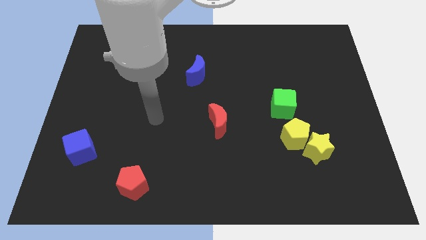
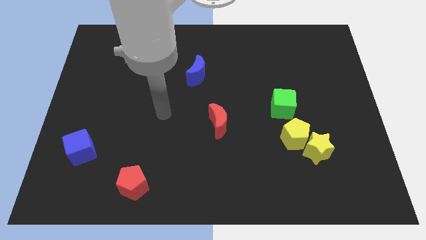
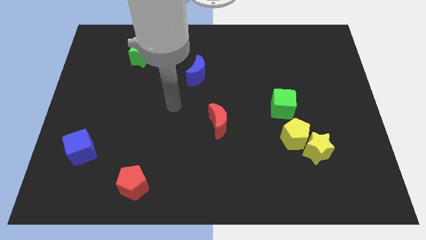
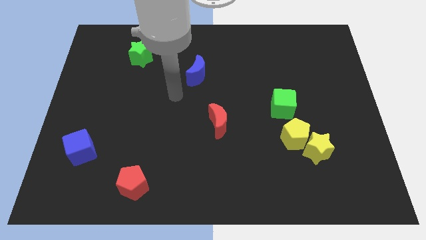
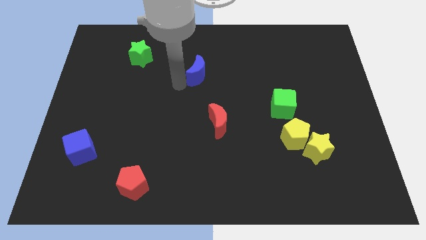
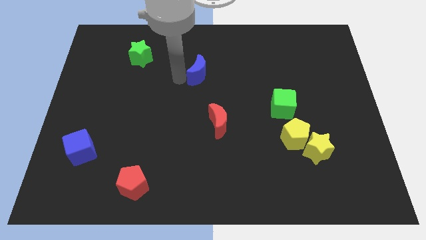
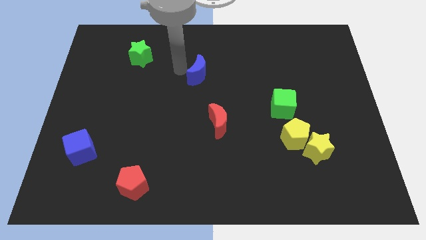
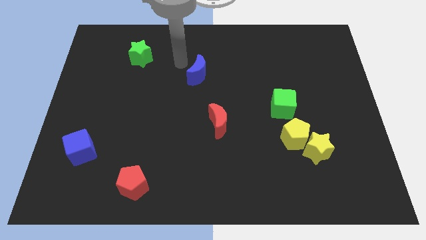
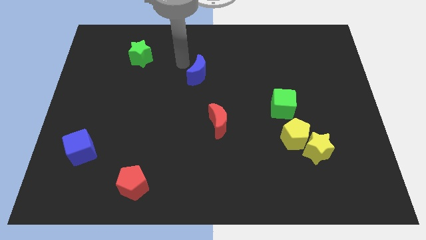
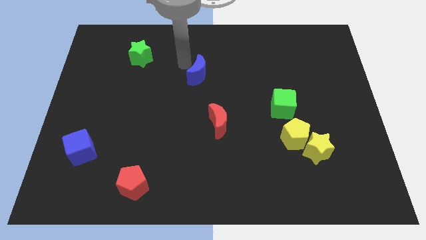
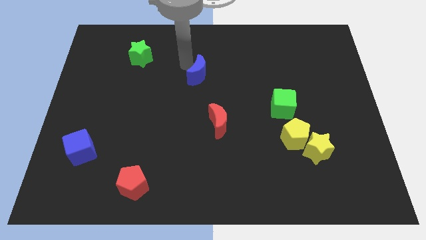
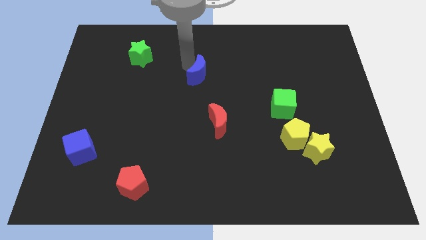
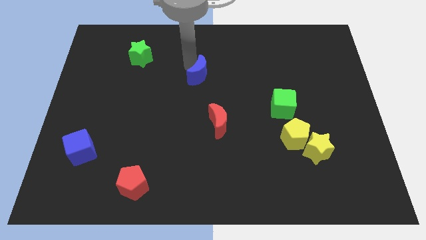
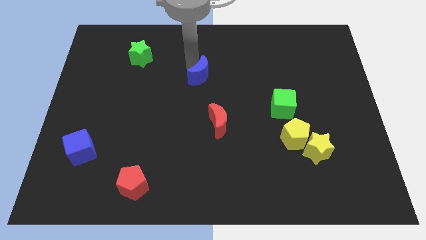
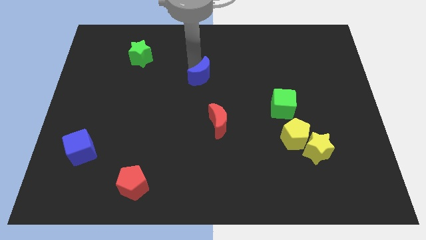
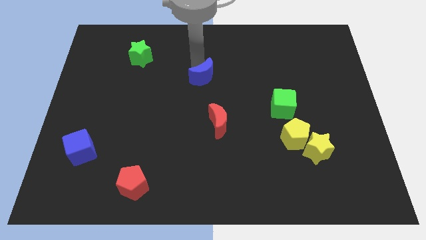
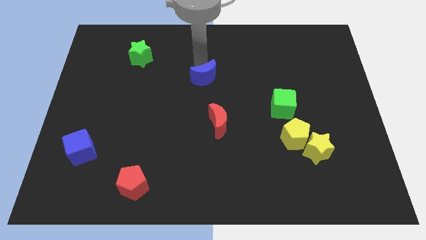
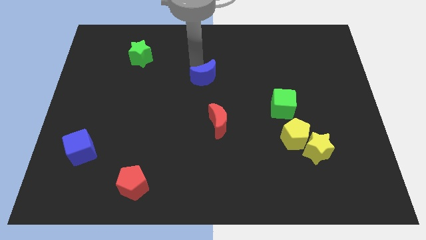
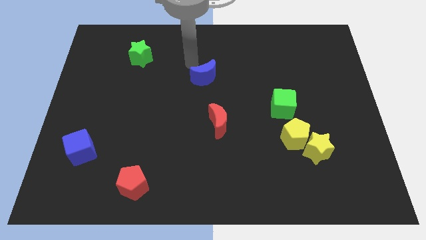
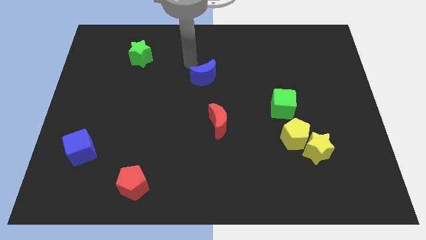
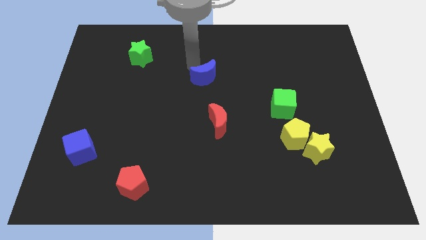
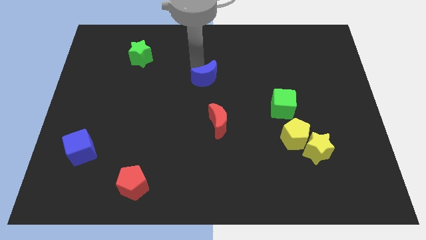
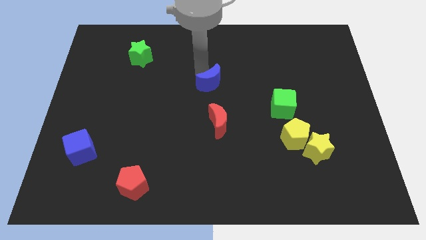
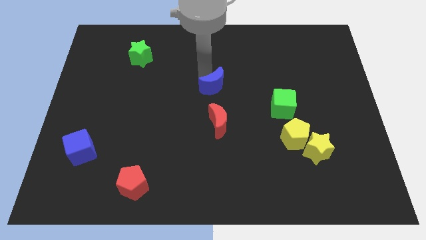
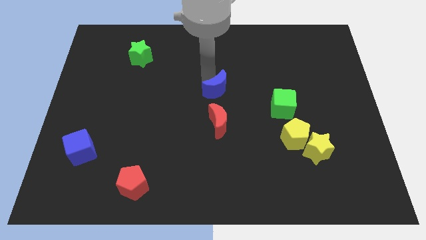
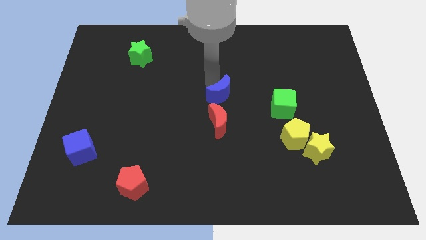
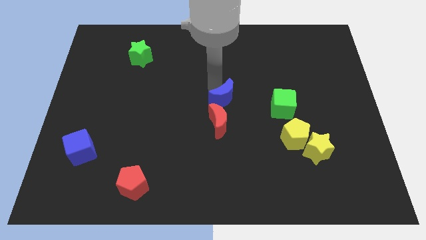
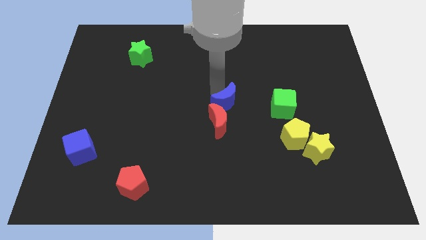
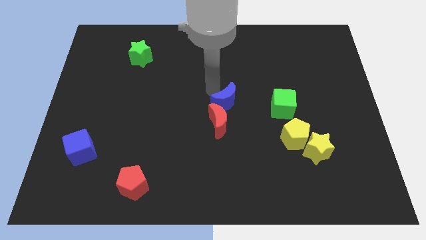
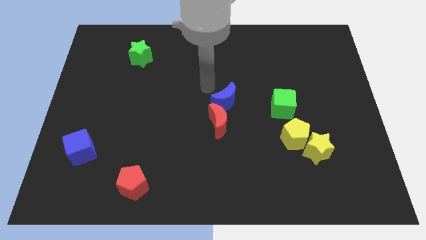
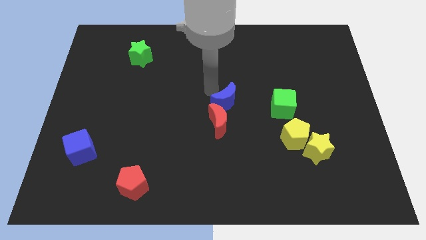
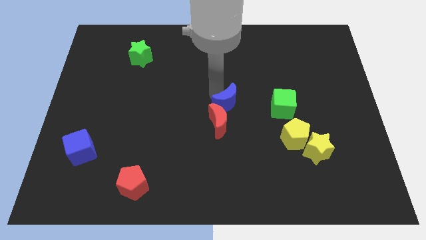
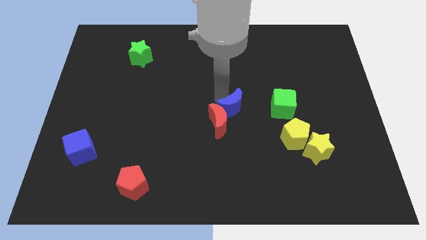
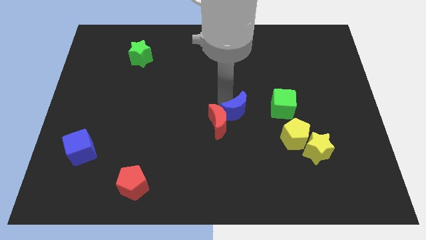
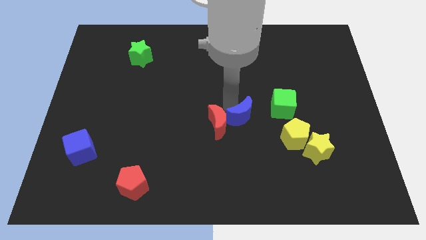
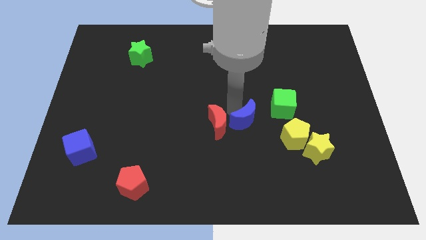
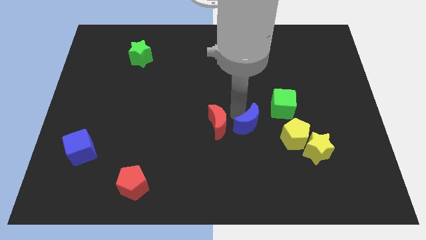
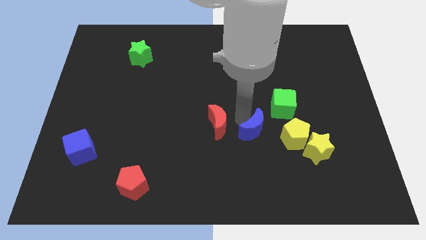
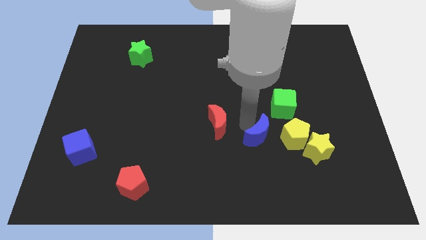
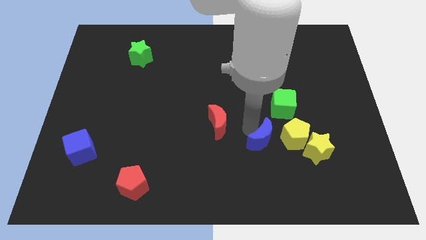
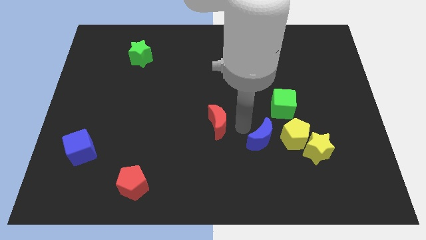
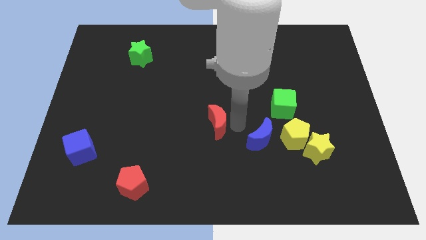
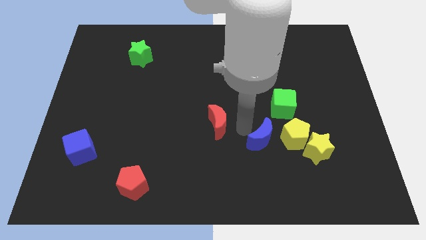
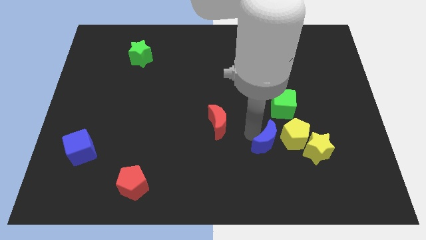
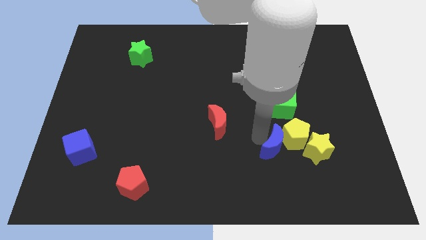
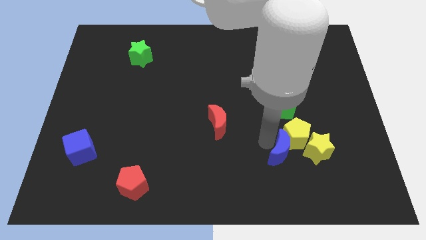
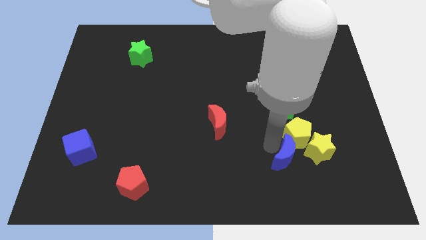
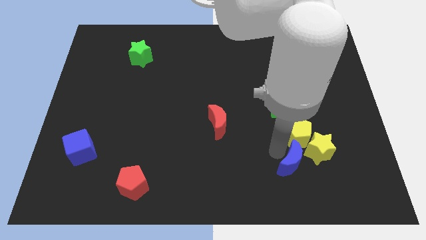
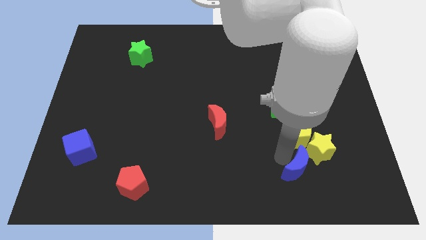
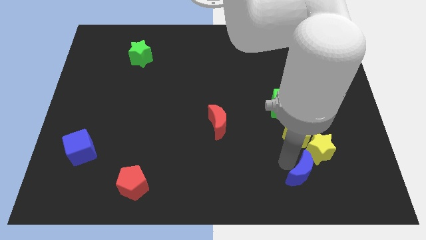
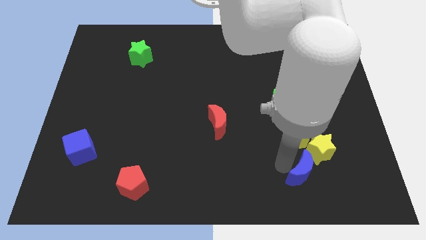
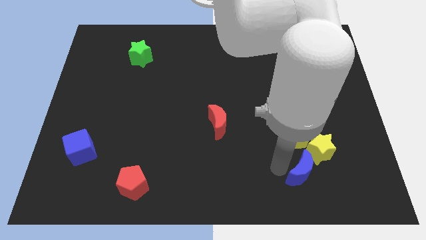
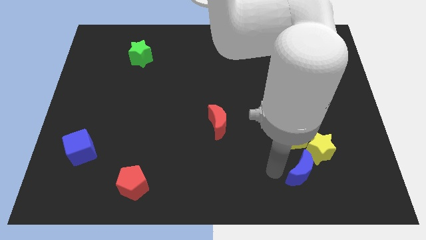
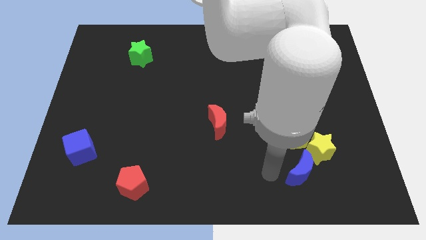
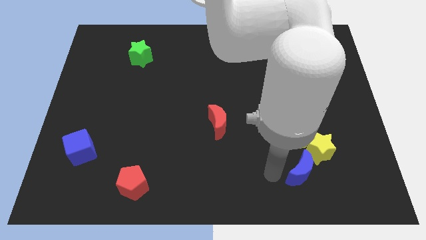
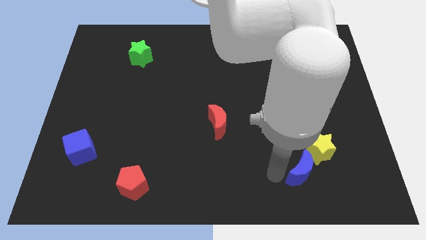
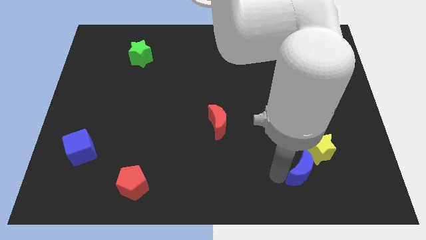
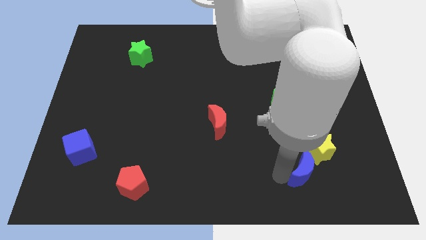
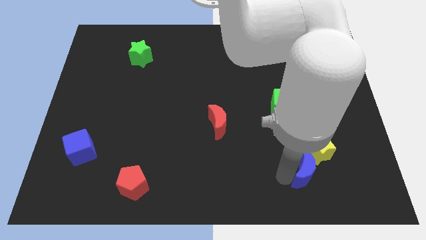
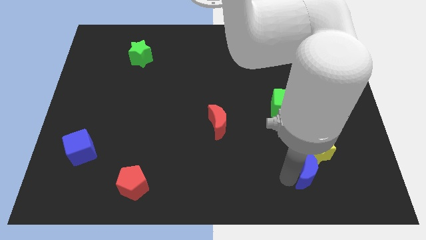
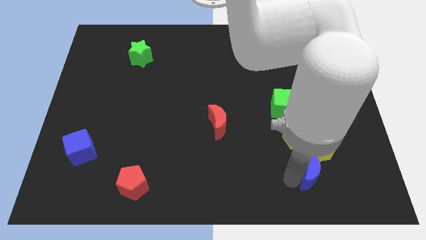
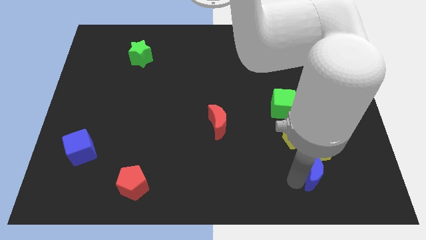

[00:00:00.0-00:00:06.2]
push the blue moon to the bottom right side of the yellow pentagon
